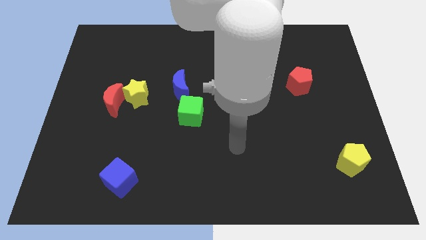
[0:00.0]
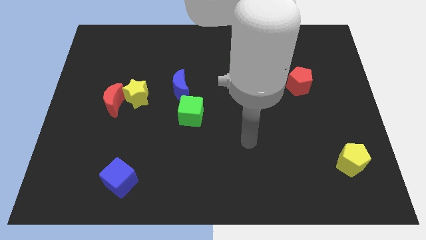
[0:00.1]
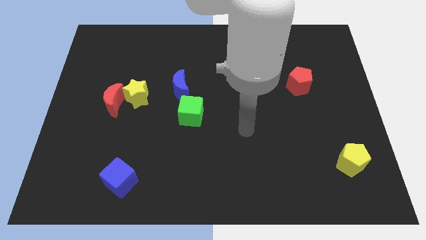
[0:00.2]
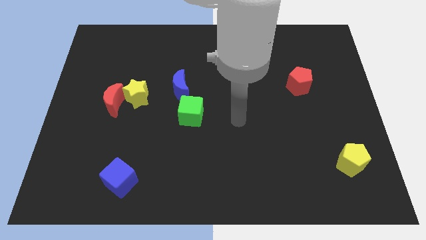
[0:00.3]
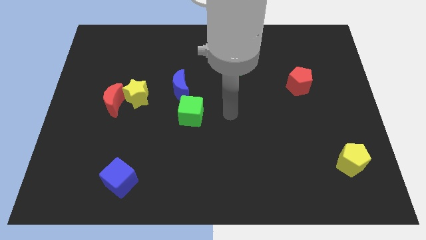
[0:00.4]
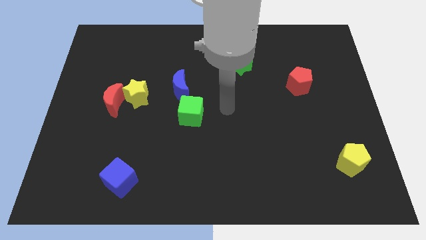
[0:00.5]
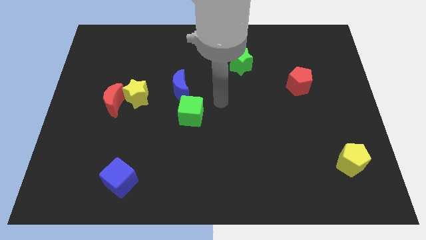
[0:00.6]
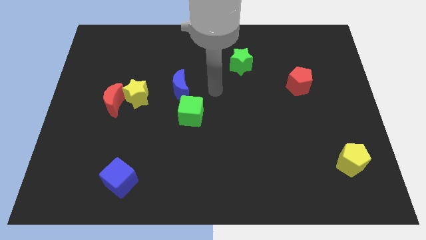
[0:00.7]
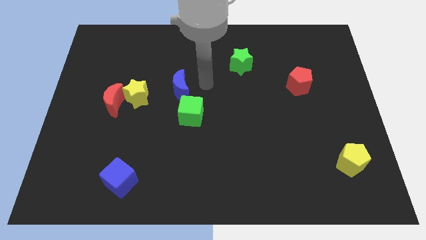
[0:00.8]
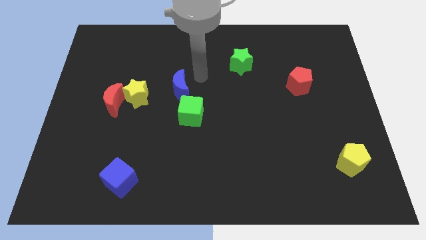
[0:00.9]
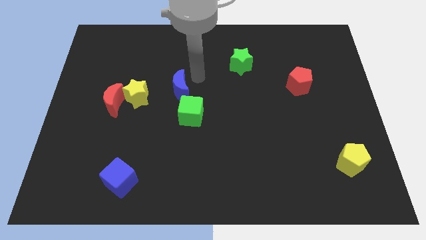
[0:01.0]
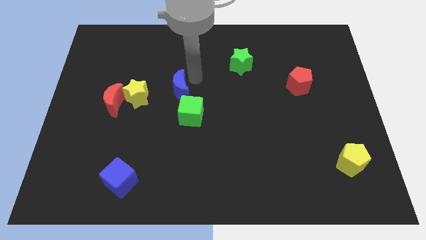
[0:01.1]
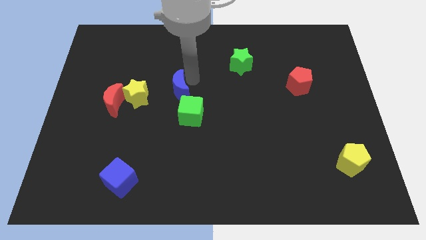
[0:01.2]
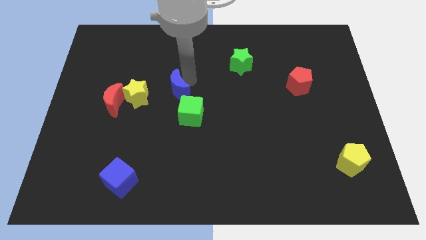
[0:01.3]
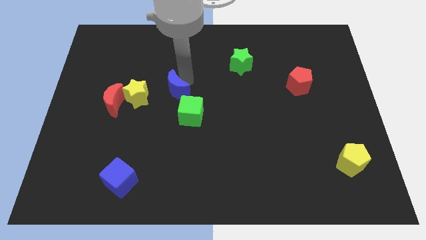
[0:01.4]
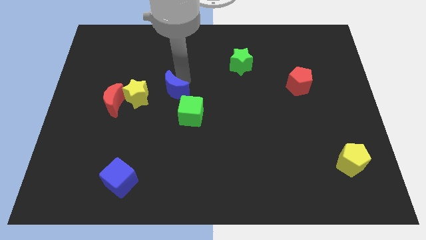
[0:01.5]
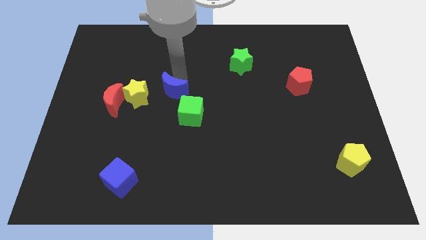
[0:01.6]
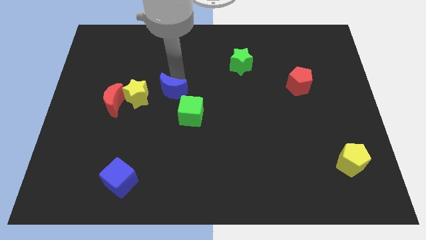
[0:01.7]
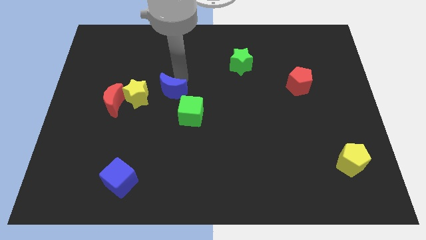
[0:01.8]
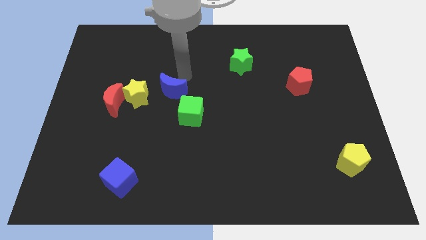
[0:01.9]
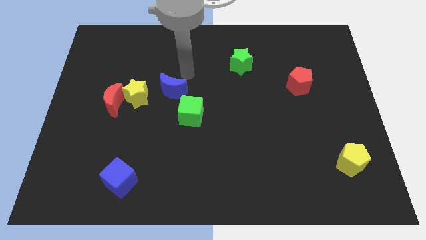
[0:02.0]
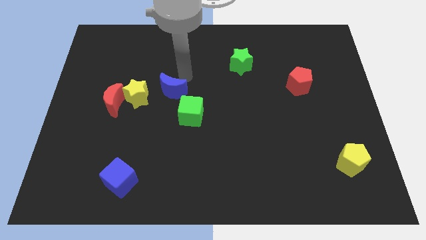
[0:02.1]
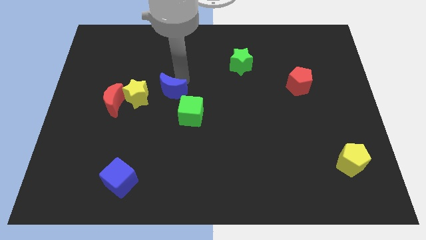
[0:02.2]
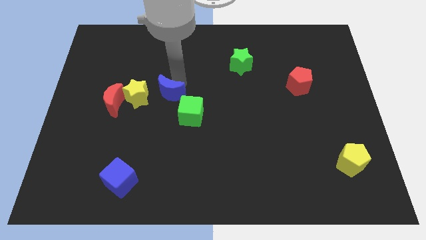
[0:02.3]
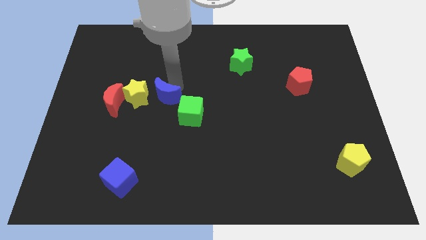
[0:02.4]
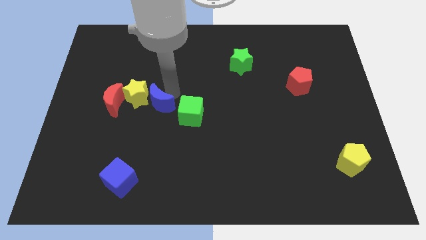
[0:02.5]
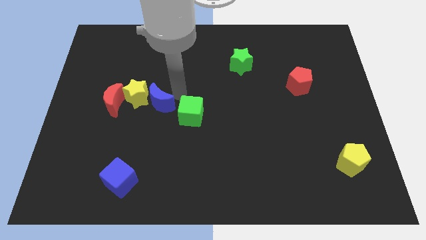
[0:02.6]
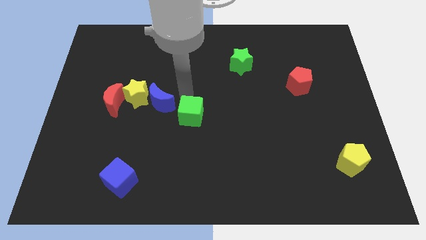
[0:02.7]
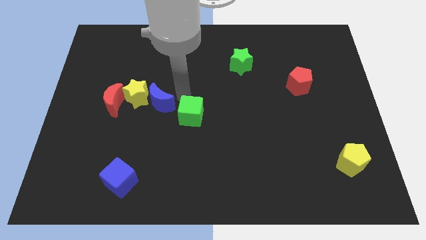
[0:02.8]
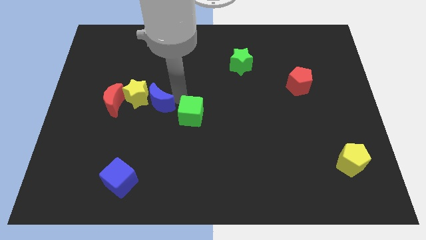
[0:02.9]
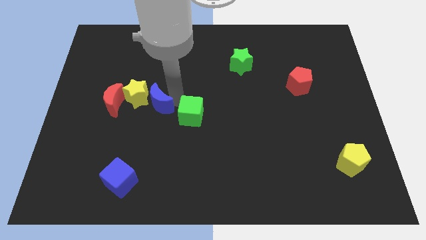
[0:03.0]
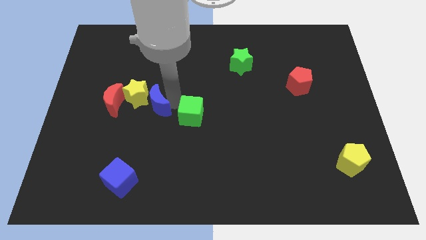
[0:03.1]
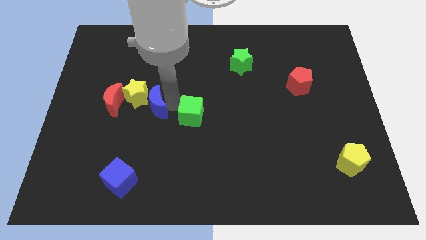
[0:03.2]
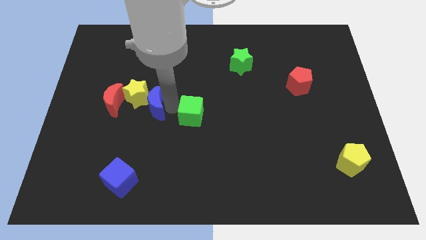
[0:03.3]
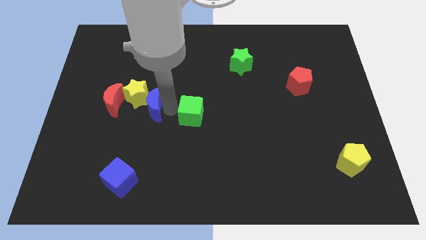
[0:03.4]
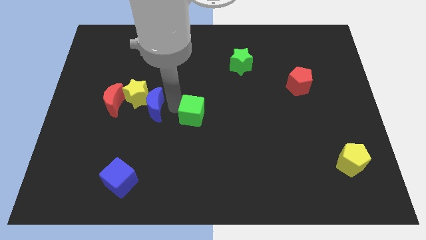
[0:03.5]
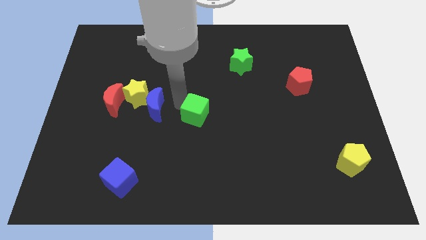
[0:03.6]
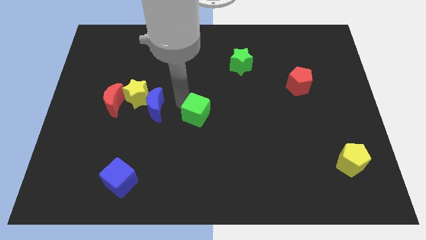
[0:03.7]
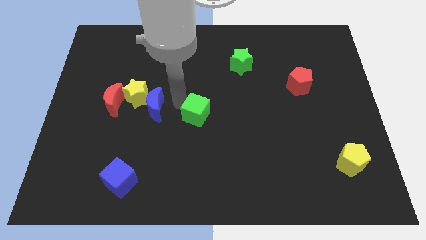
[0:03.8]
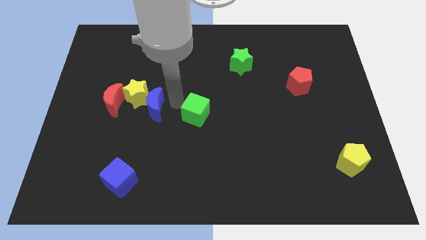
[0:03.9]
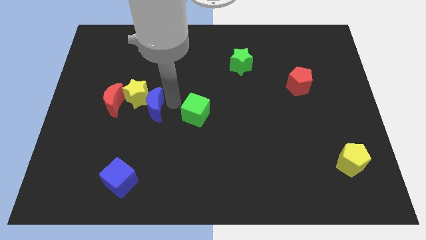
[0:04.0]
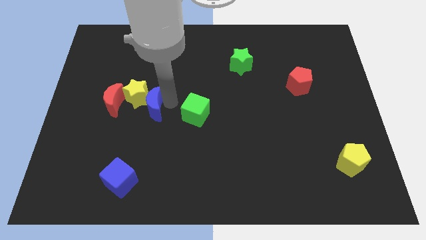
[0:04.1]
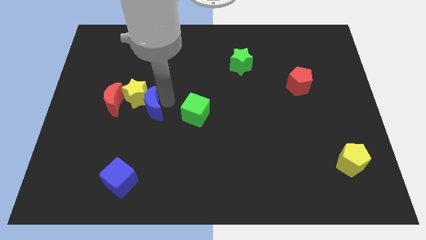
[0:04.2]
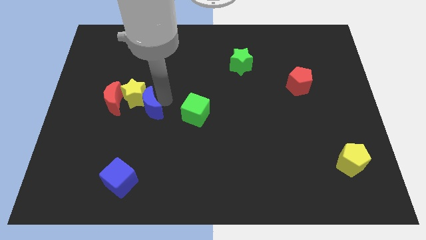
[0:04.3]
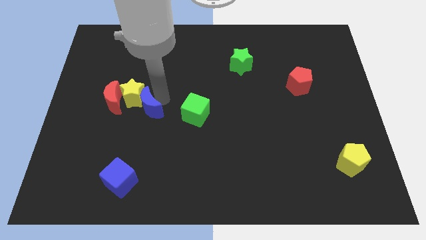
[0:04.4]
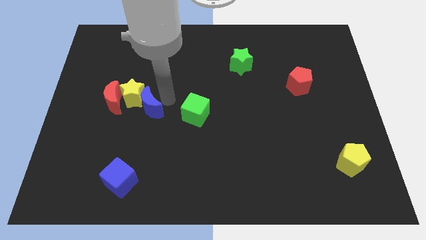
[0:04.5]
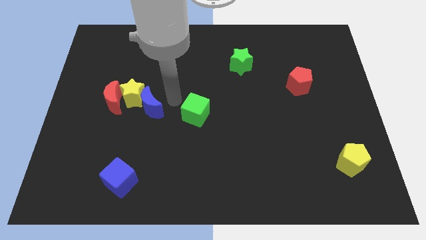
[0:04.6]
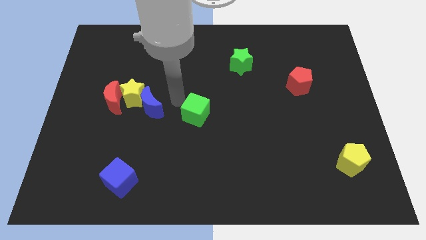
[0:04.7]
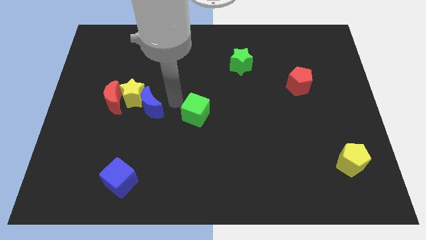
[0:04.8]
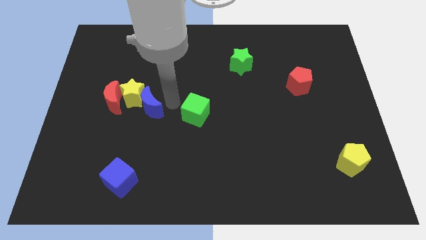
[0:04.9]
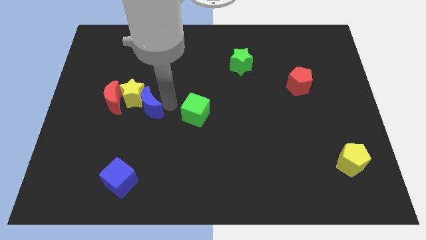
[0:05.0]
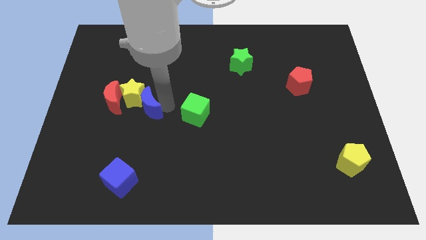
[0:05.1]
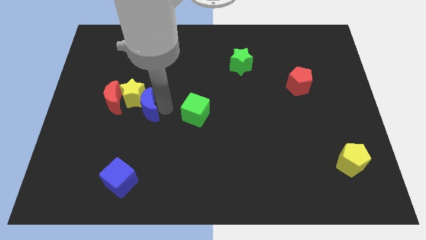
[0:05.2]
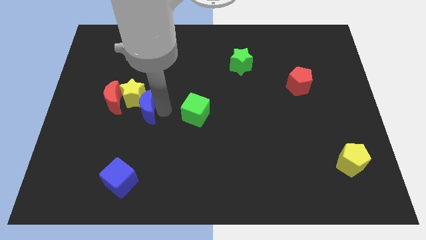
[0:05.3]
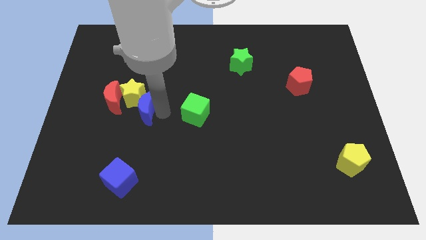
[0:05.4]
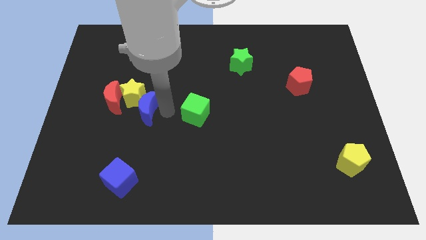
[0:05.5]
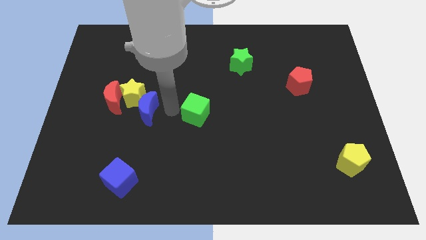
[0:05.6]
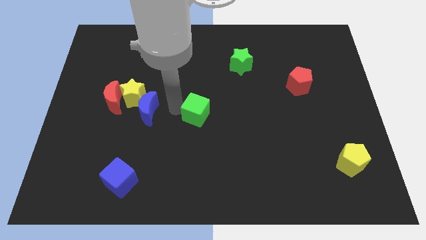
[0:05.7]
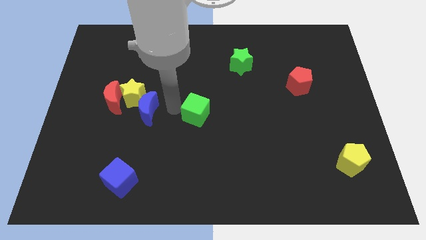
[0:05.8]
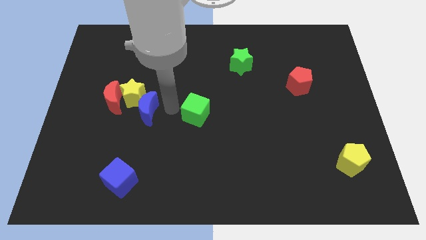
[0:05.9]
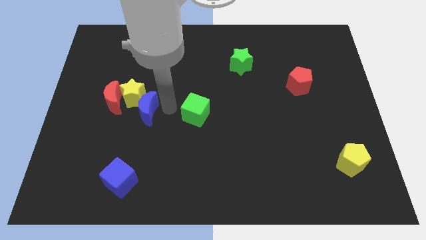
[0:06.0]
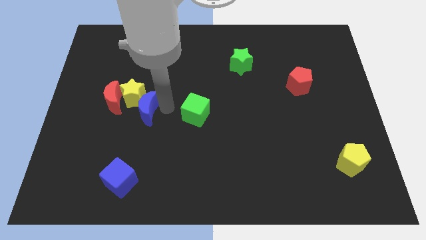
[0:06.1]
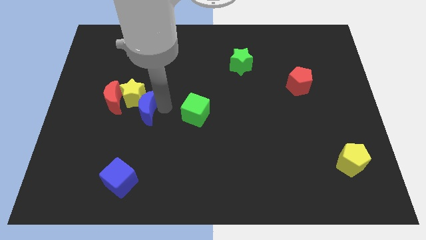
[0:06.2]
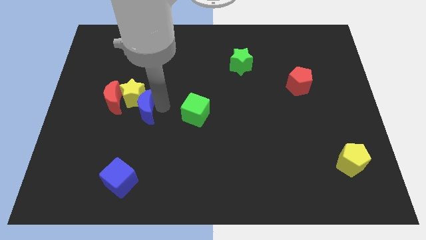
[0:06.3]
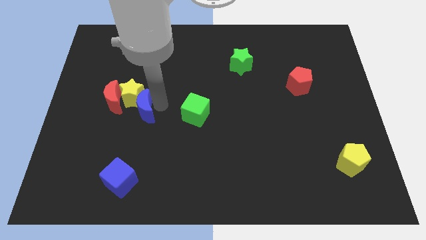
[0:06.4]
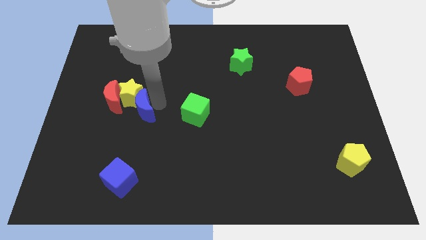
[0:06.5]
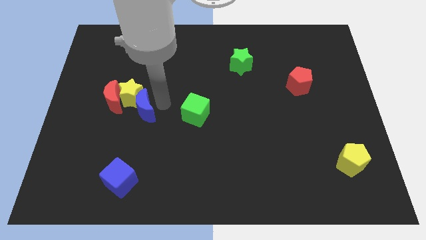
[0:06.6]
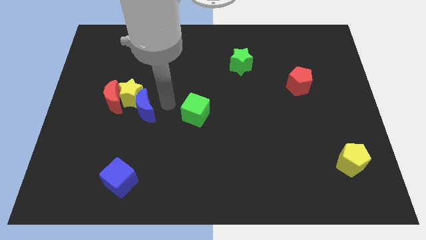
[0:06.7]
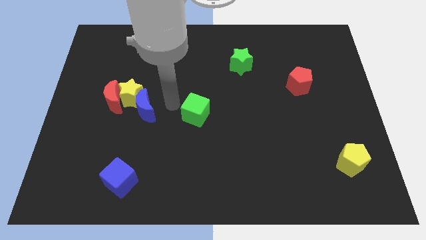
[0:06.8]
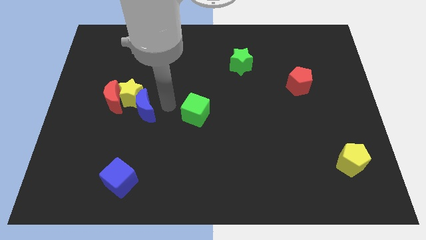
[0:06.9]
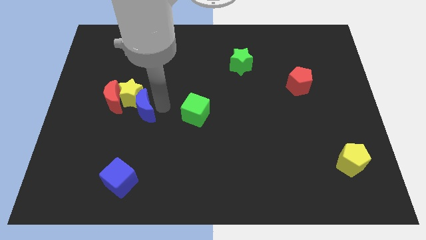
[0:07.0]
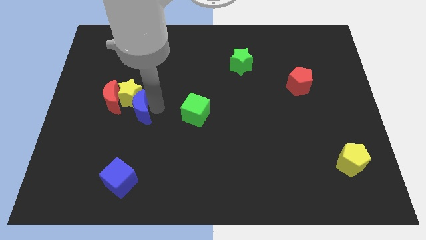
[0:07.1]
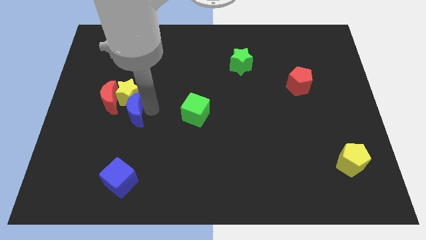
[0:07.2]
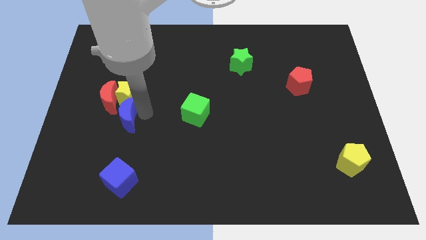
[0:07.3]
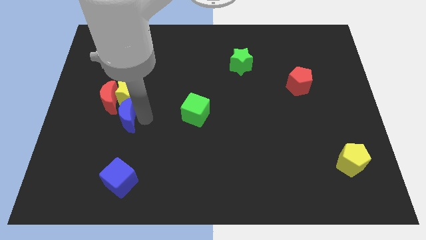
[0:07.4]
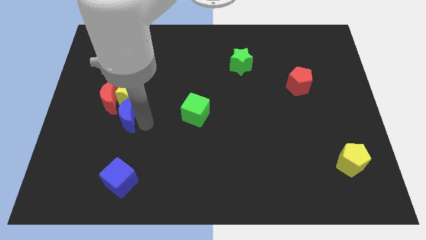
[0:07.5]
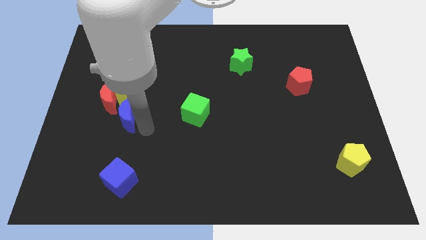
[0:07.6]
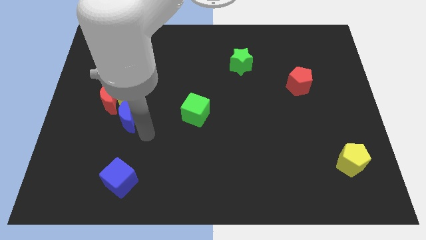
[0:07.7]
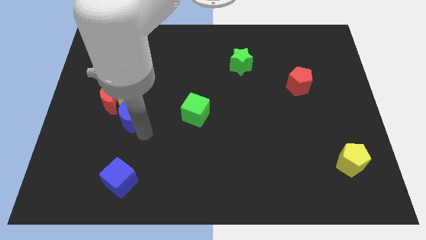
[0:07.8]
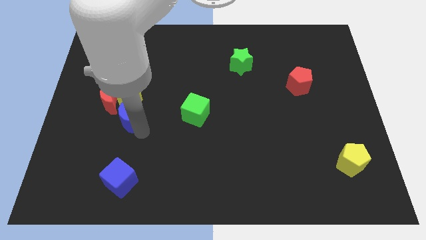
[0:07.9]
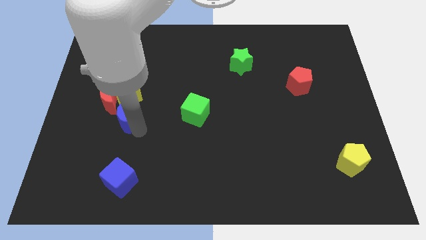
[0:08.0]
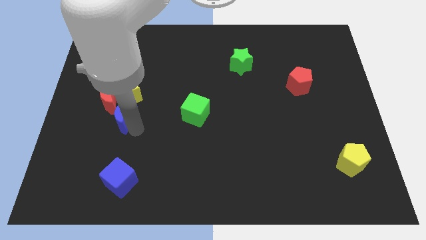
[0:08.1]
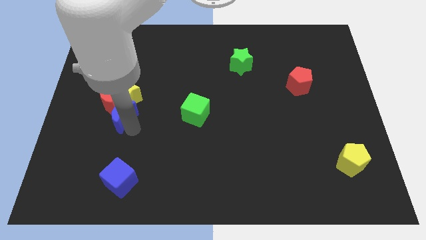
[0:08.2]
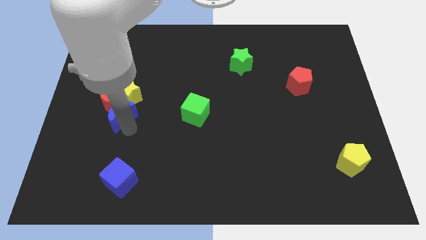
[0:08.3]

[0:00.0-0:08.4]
put the blue moon to the red moon
